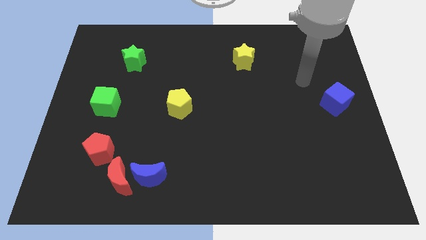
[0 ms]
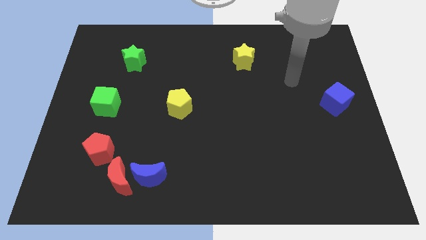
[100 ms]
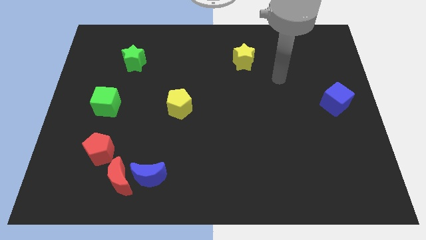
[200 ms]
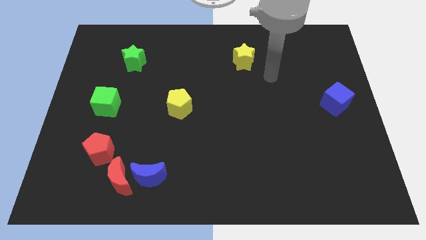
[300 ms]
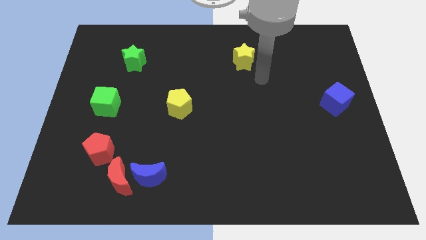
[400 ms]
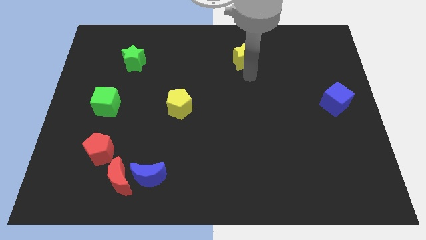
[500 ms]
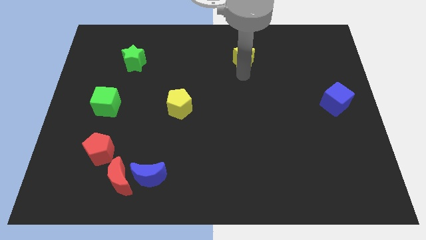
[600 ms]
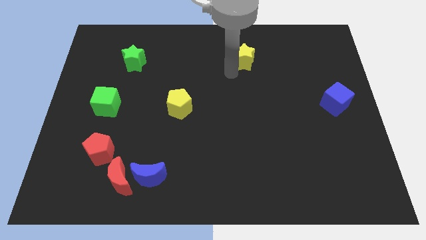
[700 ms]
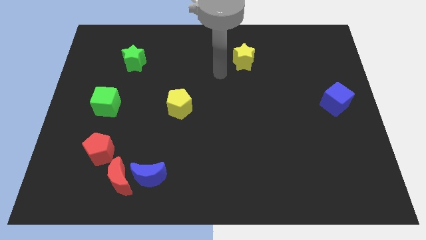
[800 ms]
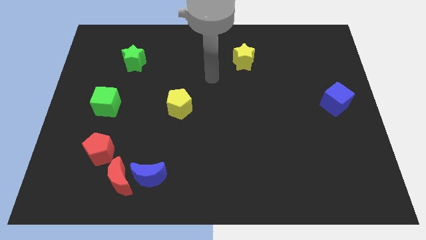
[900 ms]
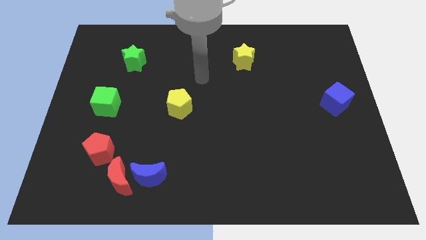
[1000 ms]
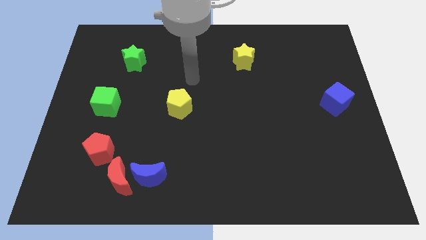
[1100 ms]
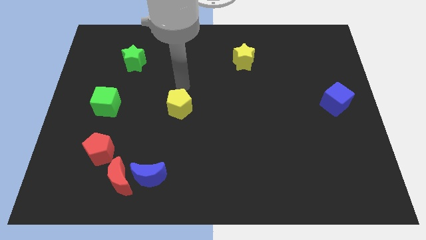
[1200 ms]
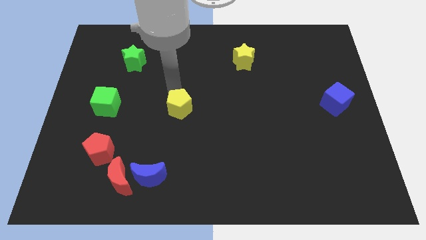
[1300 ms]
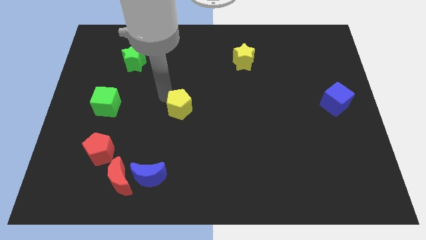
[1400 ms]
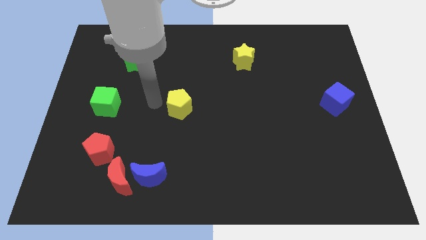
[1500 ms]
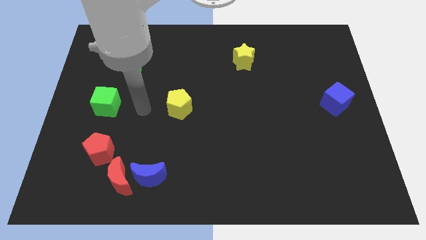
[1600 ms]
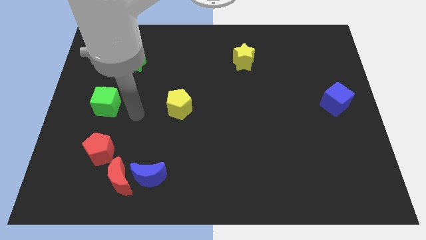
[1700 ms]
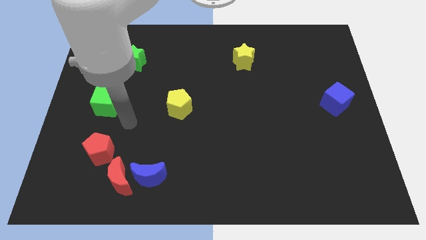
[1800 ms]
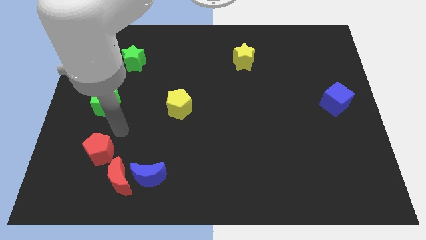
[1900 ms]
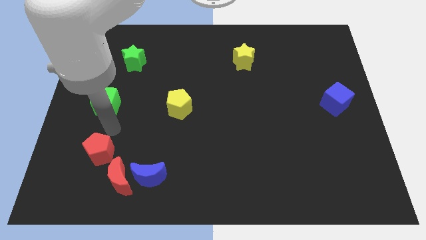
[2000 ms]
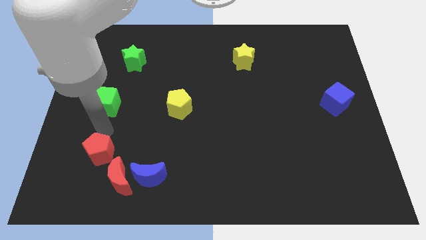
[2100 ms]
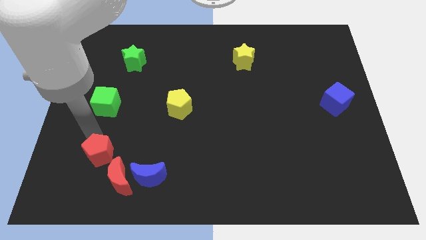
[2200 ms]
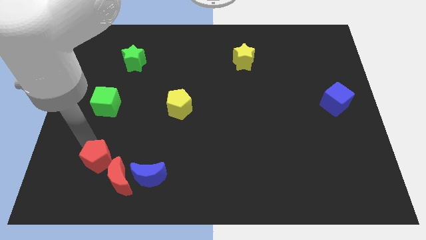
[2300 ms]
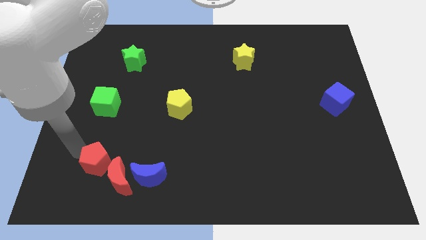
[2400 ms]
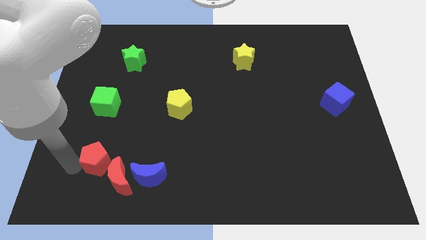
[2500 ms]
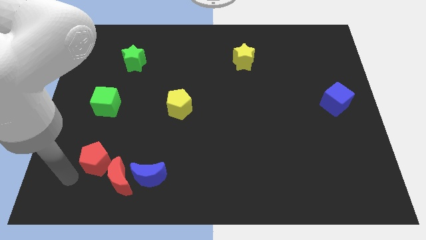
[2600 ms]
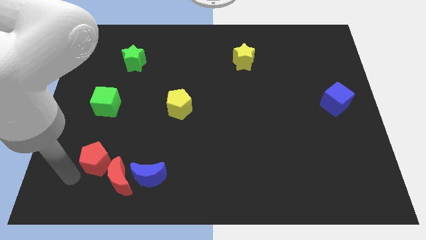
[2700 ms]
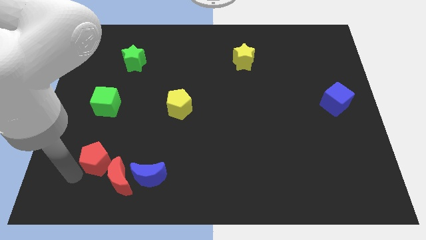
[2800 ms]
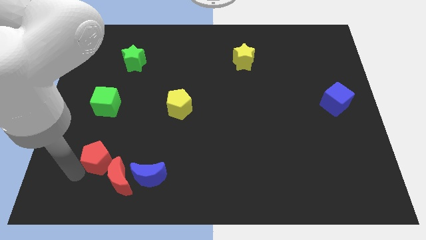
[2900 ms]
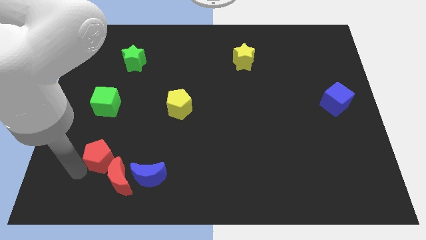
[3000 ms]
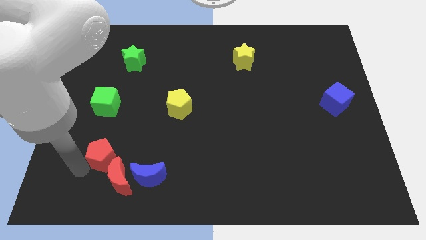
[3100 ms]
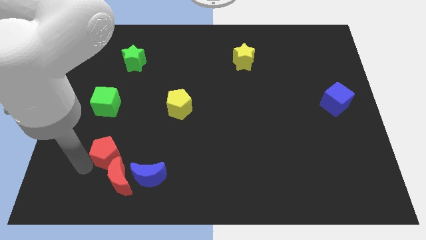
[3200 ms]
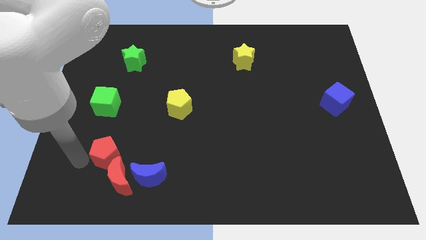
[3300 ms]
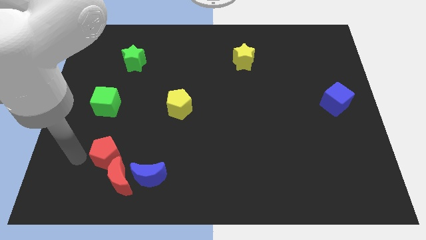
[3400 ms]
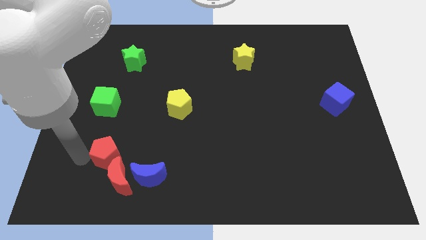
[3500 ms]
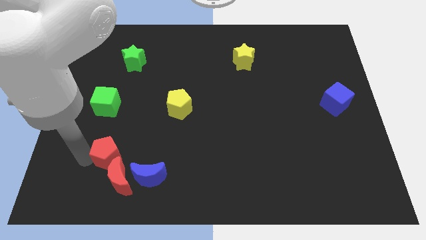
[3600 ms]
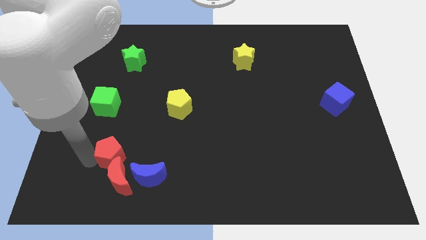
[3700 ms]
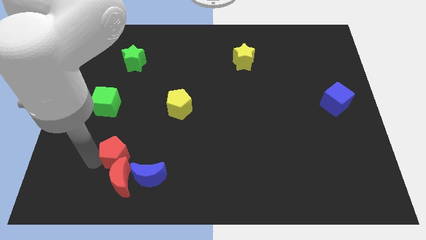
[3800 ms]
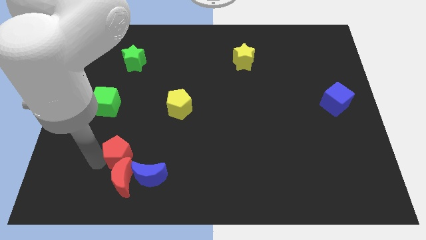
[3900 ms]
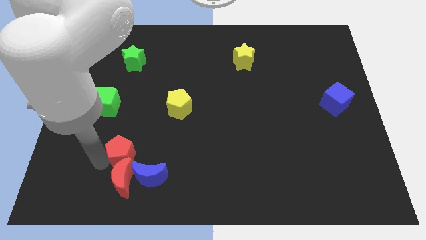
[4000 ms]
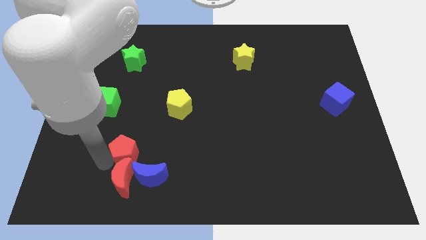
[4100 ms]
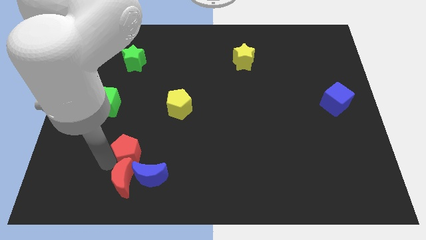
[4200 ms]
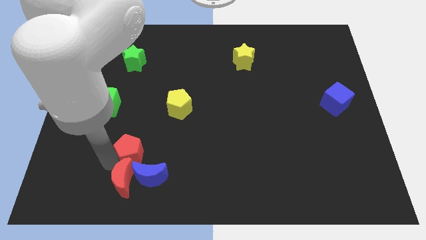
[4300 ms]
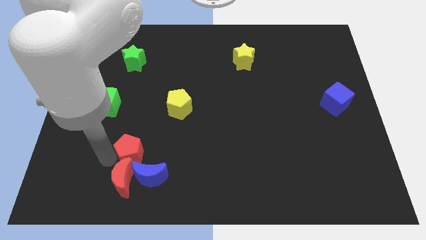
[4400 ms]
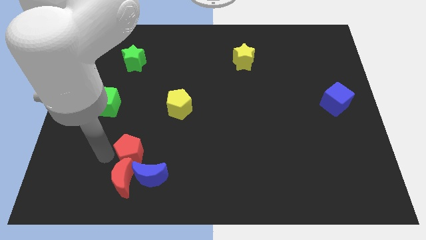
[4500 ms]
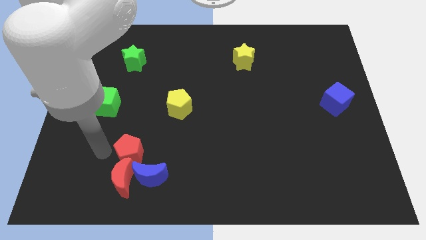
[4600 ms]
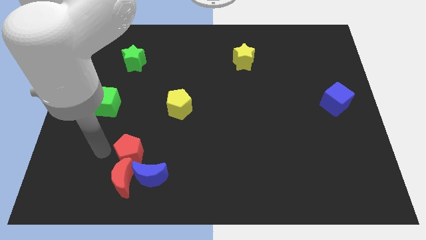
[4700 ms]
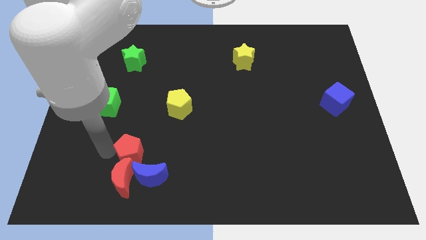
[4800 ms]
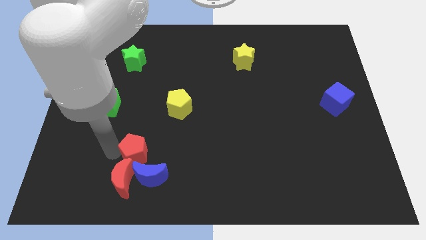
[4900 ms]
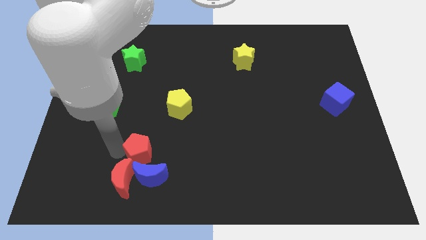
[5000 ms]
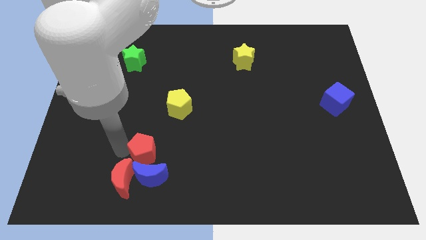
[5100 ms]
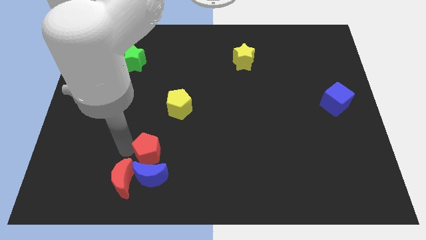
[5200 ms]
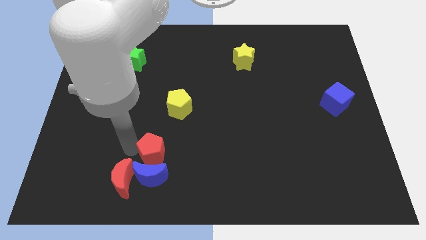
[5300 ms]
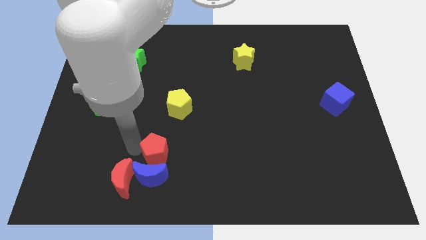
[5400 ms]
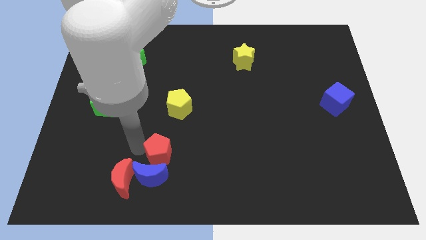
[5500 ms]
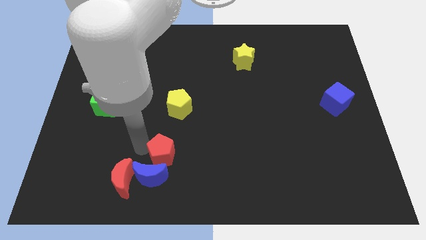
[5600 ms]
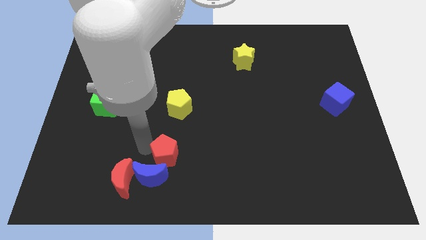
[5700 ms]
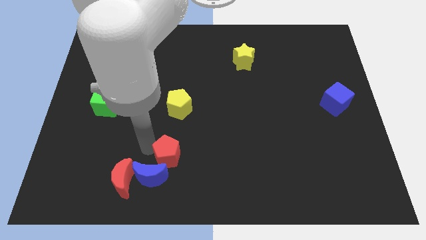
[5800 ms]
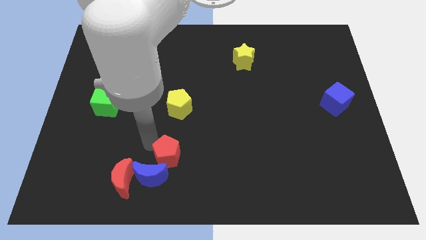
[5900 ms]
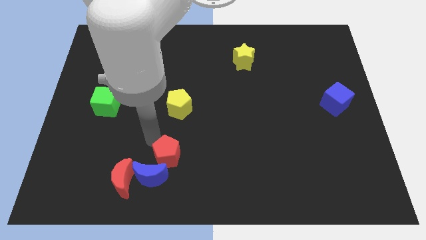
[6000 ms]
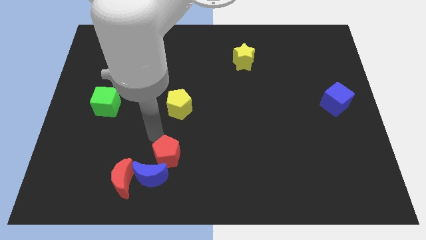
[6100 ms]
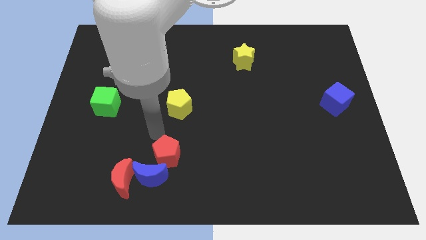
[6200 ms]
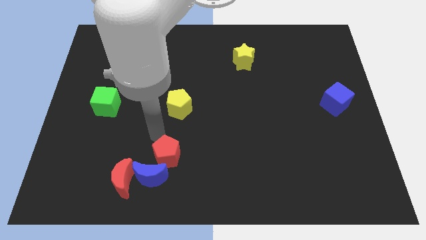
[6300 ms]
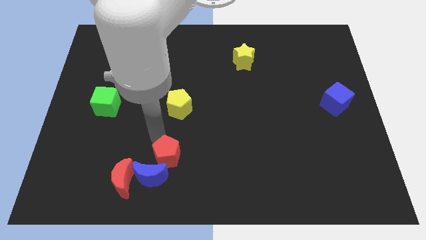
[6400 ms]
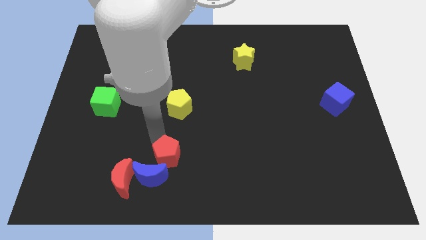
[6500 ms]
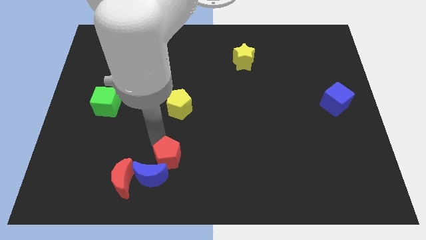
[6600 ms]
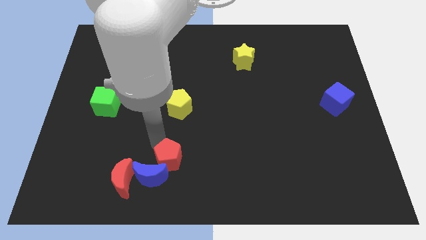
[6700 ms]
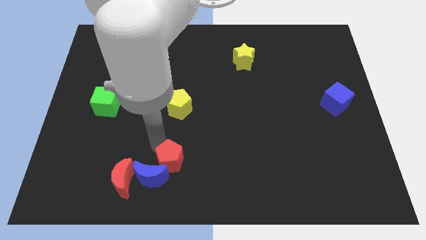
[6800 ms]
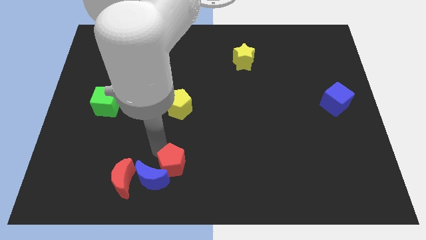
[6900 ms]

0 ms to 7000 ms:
push the red pentagon to the bottom side

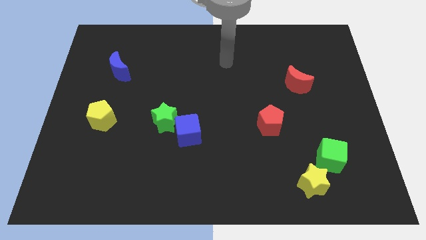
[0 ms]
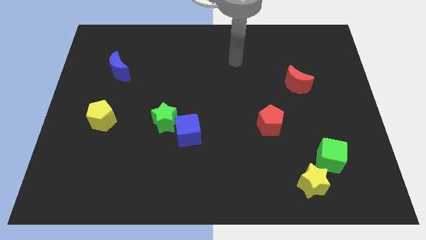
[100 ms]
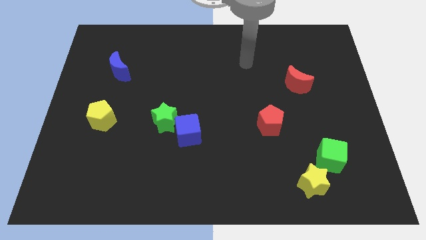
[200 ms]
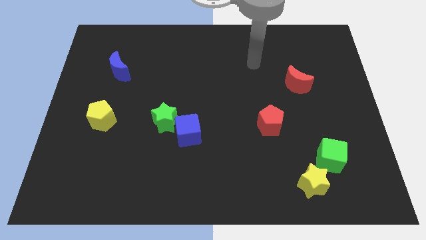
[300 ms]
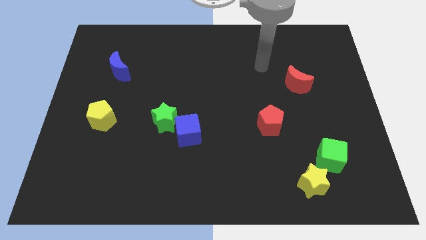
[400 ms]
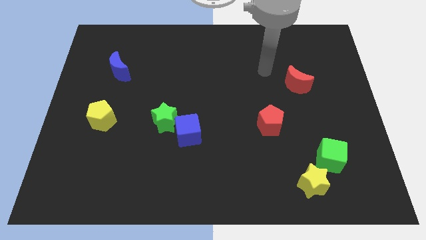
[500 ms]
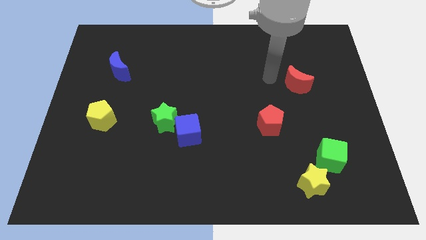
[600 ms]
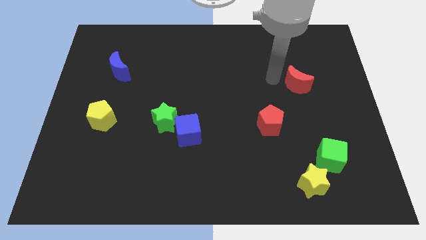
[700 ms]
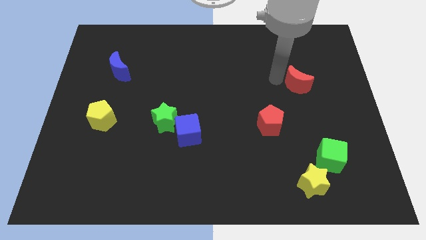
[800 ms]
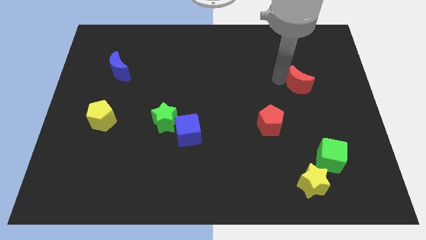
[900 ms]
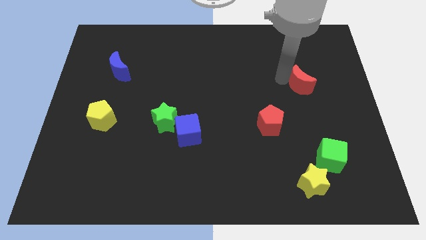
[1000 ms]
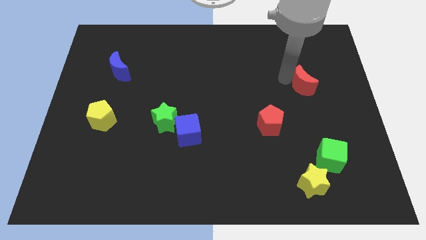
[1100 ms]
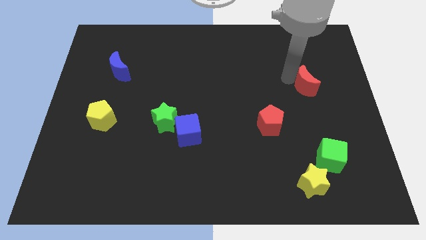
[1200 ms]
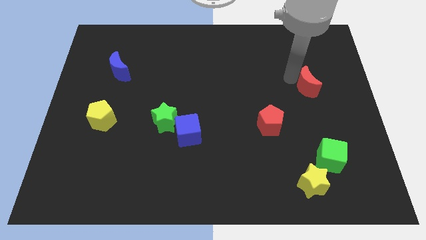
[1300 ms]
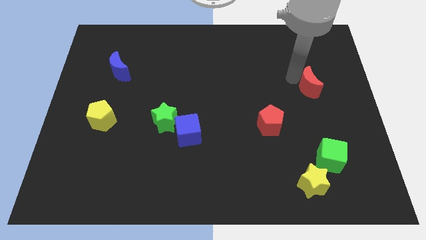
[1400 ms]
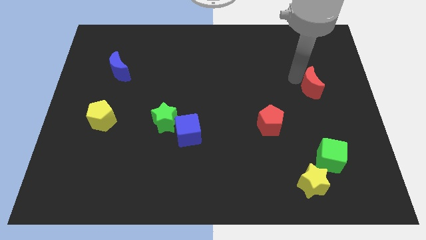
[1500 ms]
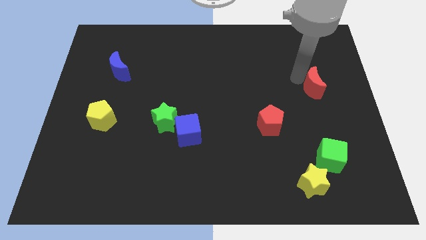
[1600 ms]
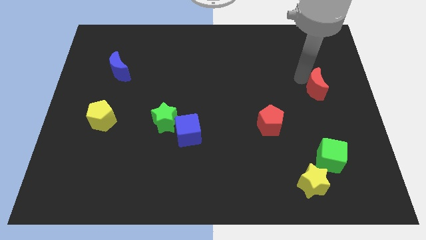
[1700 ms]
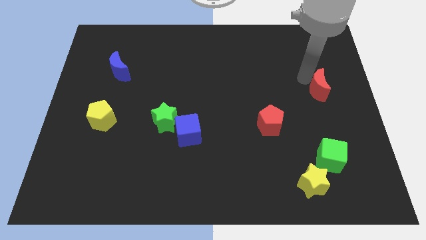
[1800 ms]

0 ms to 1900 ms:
move the red moon to the right side
